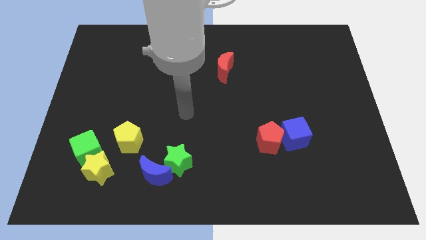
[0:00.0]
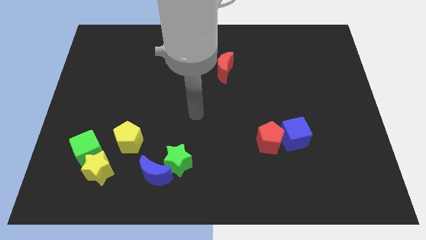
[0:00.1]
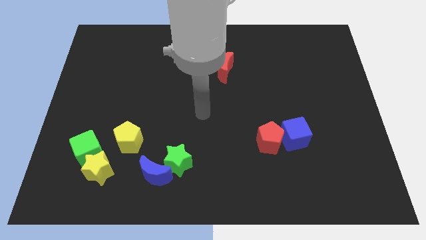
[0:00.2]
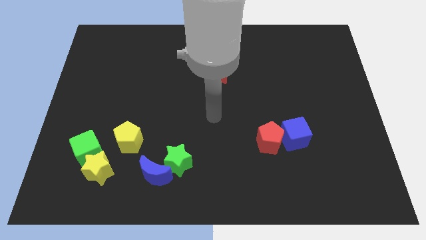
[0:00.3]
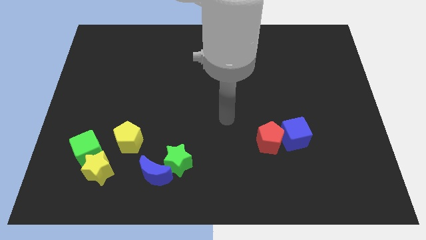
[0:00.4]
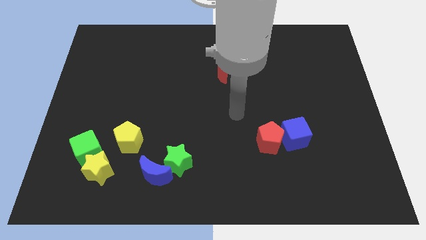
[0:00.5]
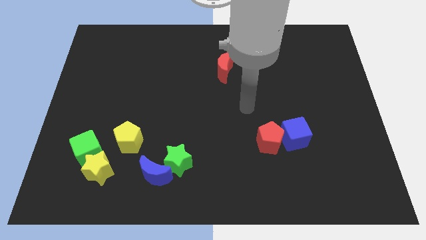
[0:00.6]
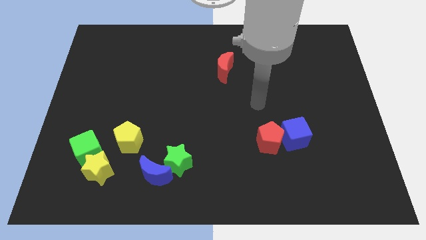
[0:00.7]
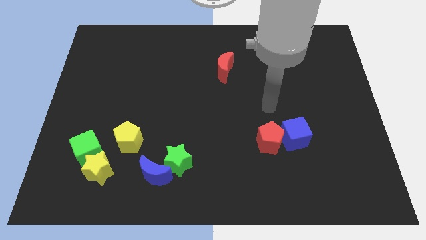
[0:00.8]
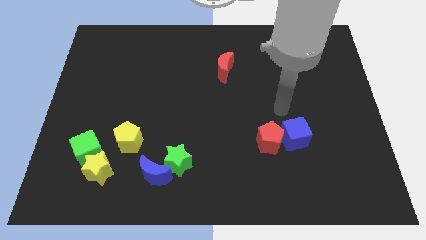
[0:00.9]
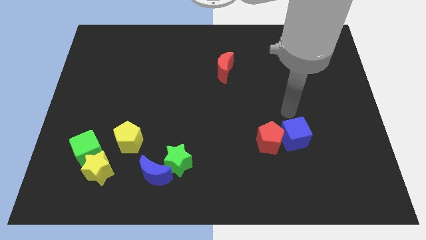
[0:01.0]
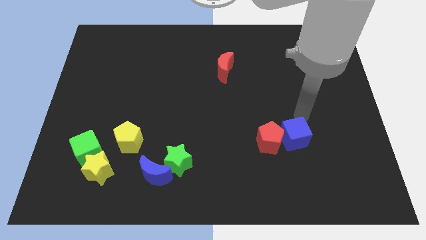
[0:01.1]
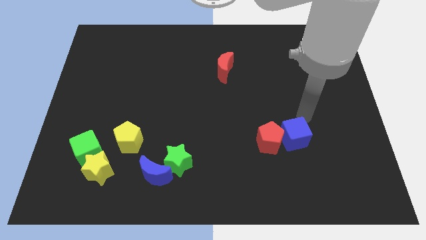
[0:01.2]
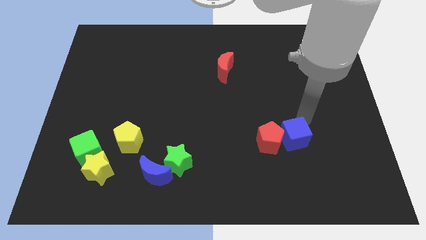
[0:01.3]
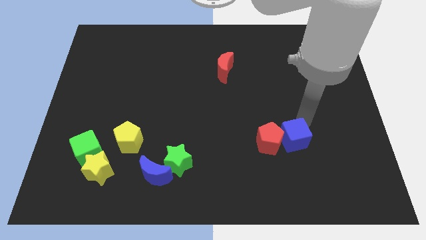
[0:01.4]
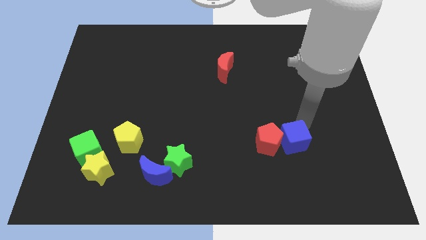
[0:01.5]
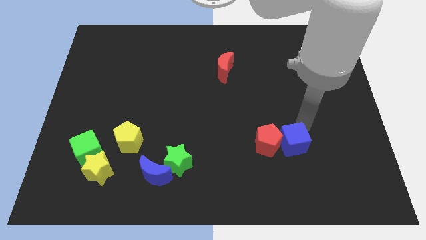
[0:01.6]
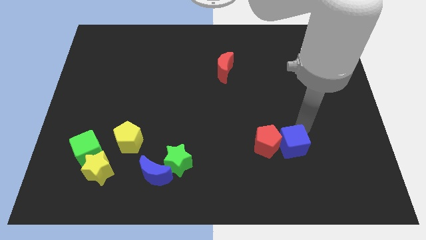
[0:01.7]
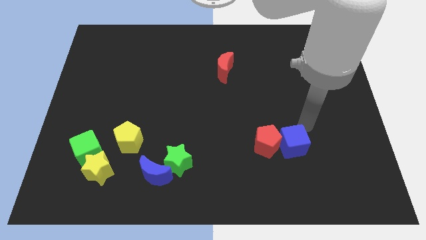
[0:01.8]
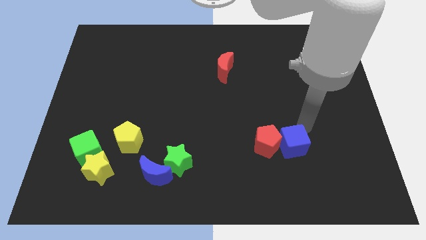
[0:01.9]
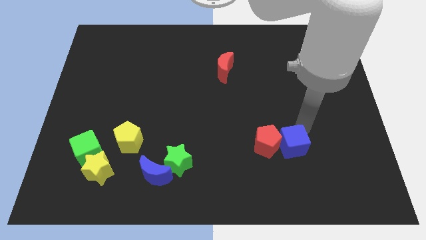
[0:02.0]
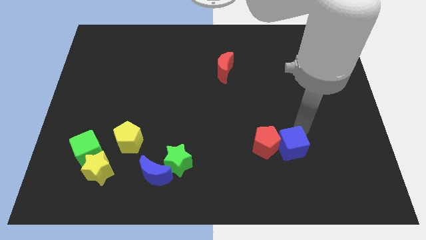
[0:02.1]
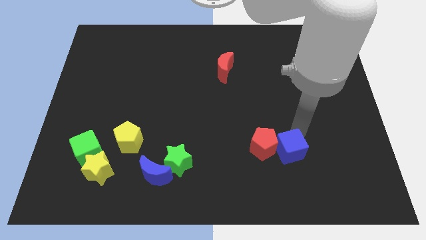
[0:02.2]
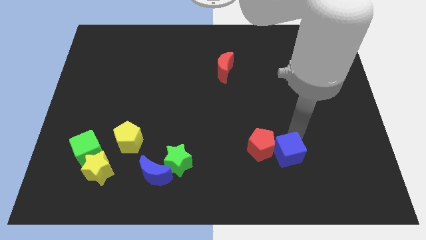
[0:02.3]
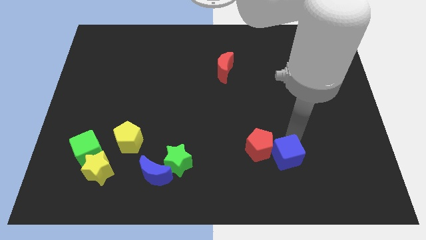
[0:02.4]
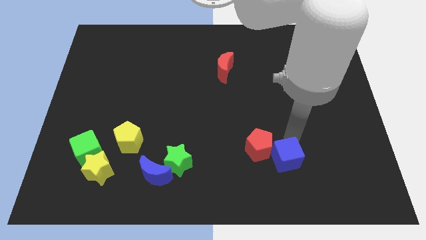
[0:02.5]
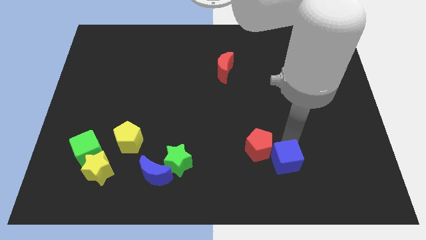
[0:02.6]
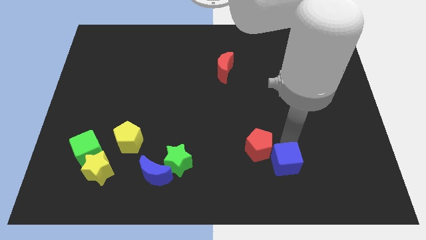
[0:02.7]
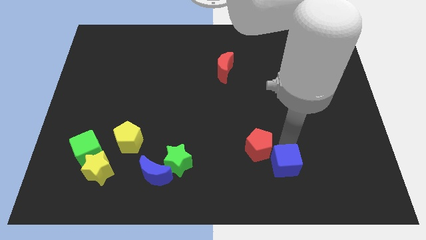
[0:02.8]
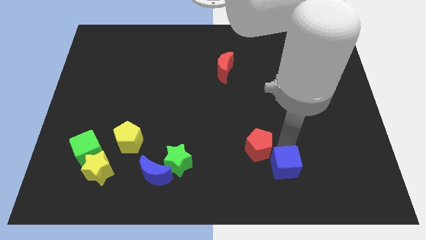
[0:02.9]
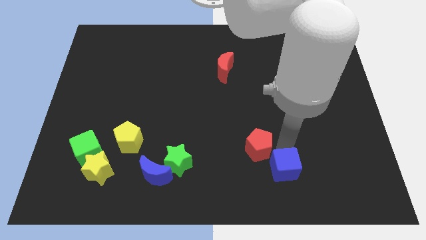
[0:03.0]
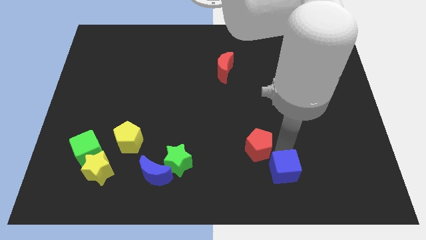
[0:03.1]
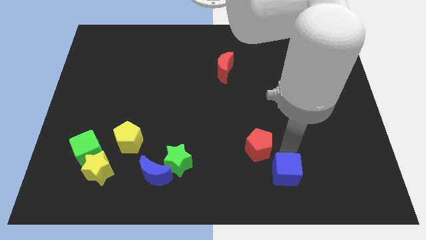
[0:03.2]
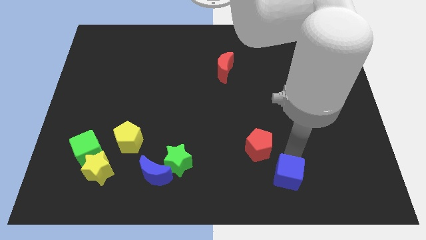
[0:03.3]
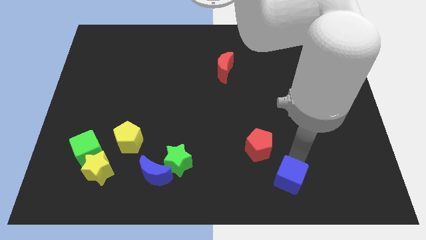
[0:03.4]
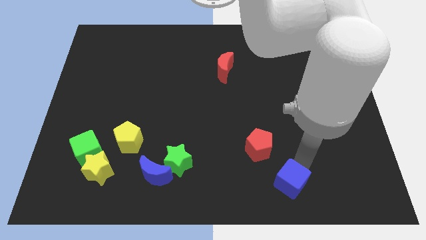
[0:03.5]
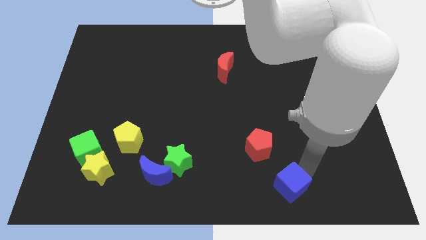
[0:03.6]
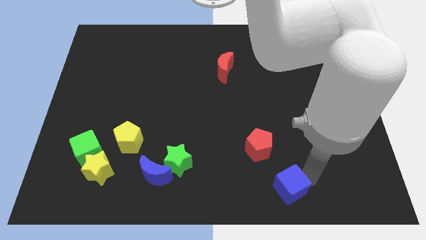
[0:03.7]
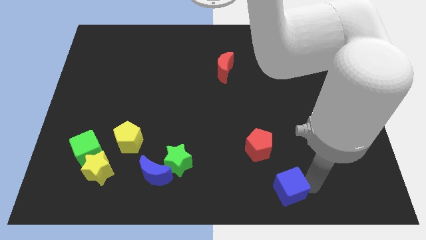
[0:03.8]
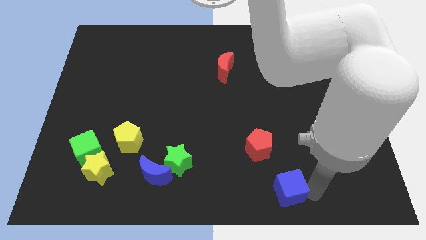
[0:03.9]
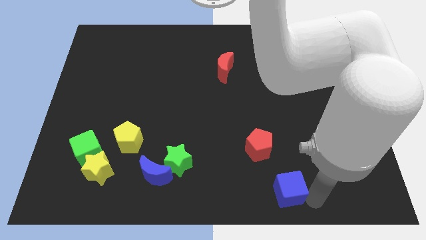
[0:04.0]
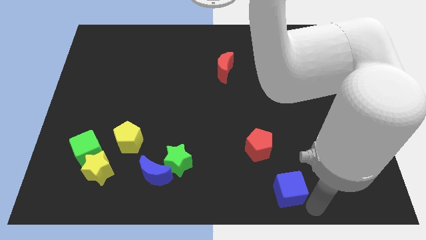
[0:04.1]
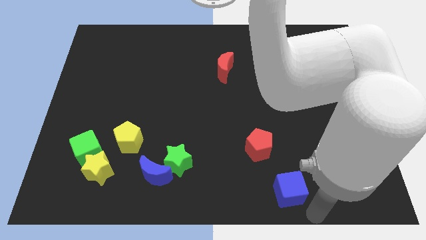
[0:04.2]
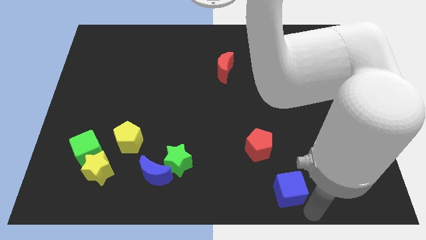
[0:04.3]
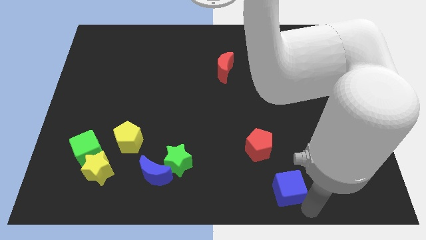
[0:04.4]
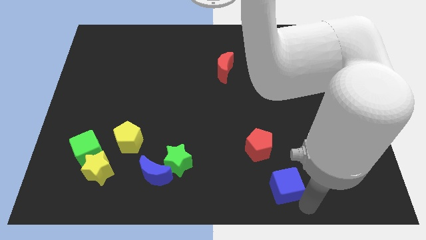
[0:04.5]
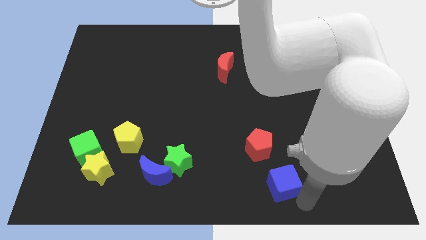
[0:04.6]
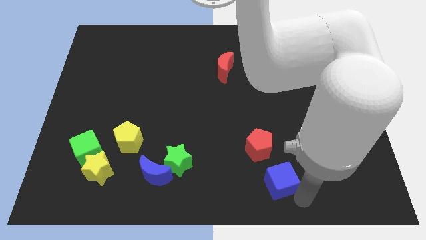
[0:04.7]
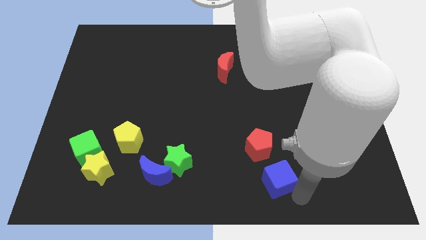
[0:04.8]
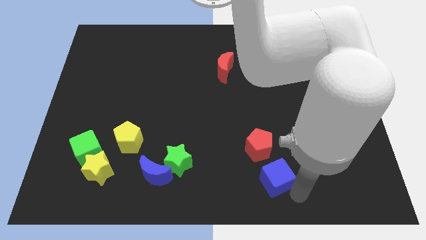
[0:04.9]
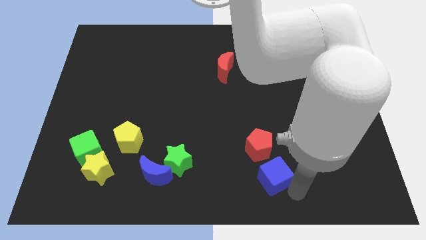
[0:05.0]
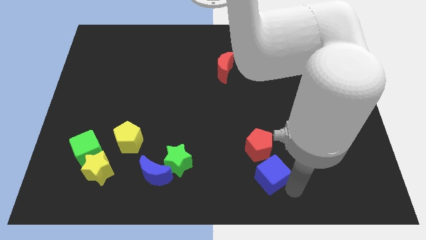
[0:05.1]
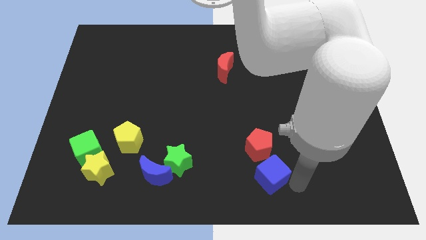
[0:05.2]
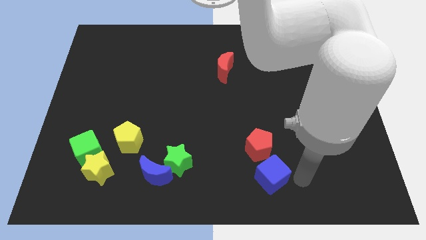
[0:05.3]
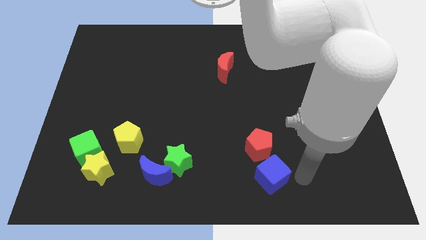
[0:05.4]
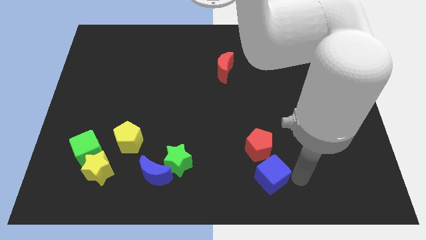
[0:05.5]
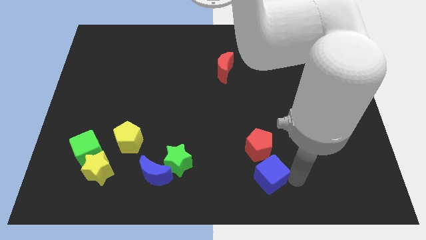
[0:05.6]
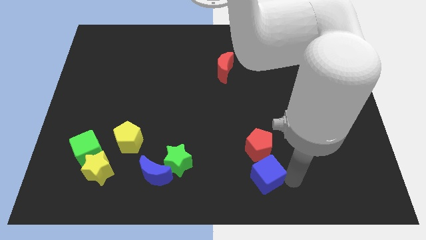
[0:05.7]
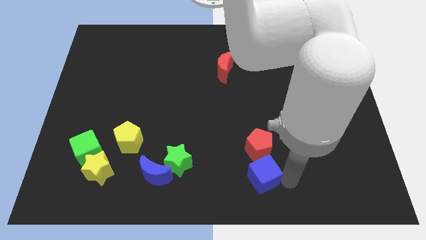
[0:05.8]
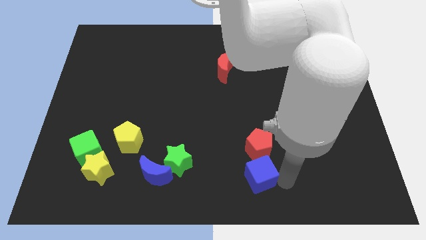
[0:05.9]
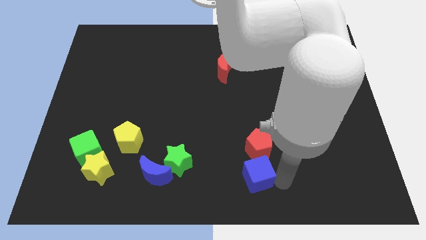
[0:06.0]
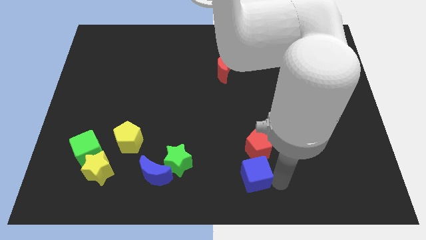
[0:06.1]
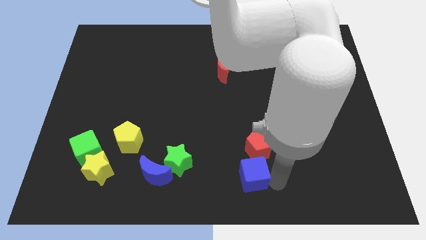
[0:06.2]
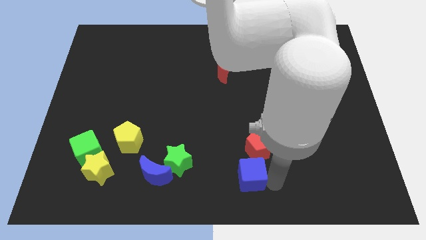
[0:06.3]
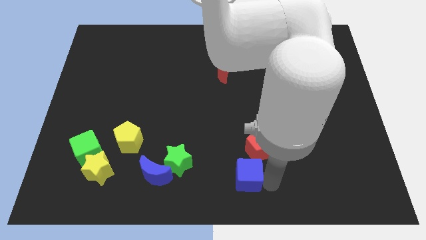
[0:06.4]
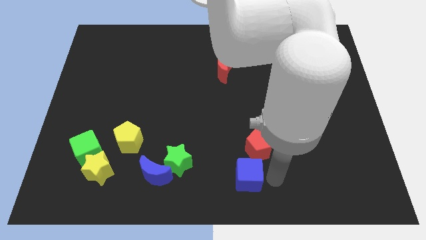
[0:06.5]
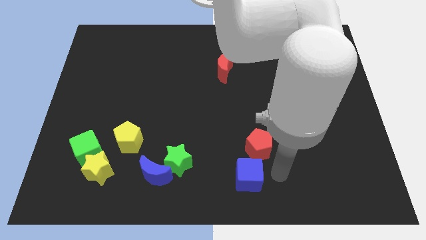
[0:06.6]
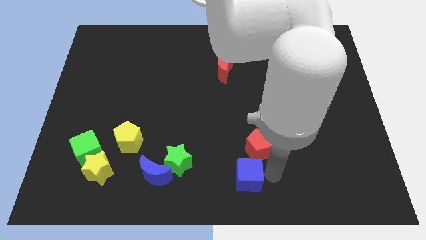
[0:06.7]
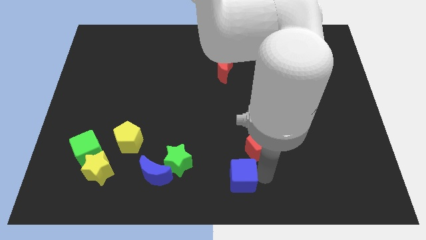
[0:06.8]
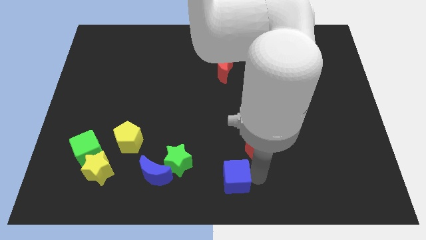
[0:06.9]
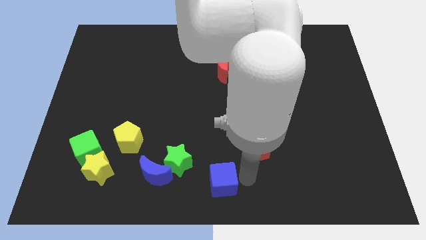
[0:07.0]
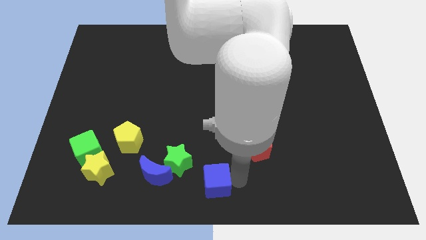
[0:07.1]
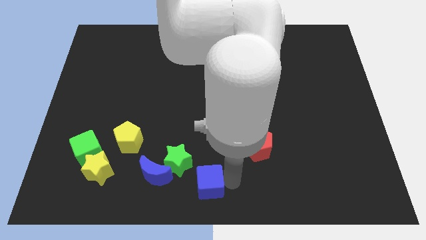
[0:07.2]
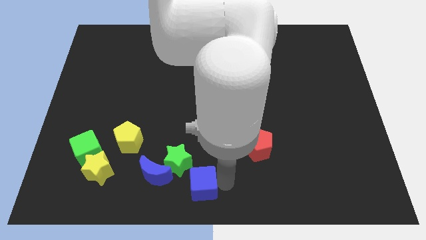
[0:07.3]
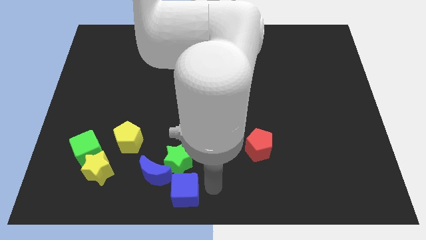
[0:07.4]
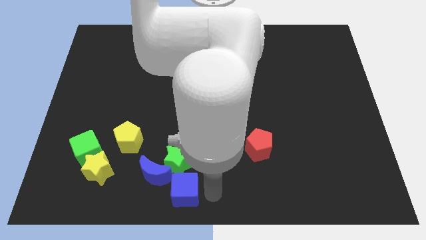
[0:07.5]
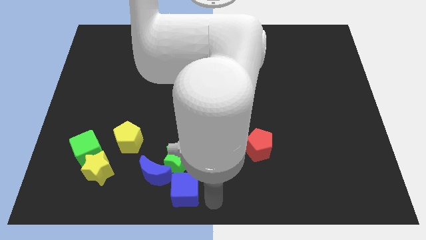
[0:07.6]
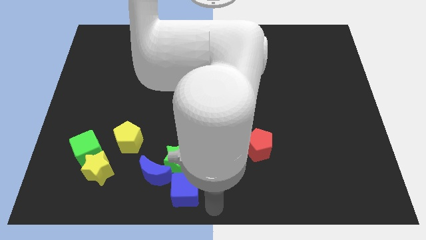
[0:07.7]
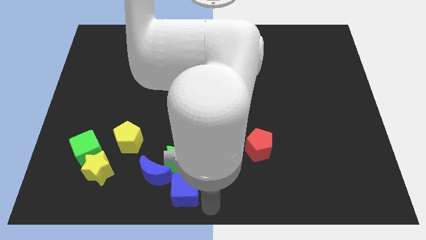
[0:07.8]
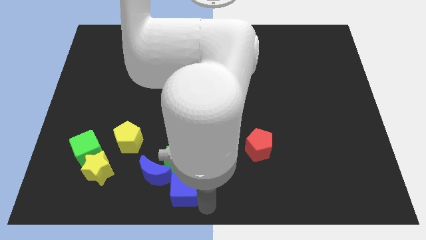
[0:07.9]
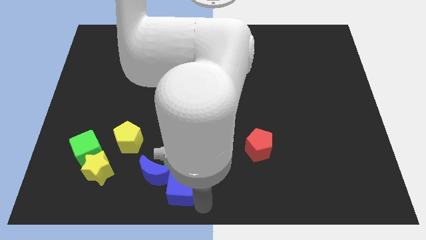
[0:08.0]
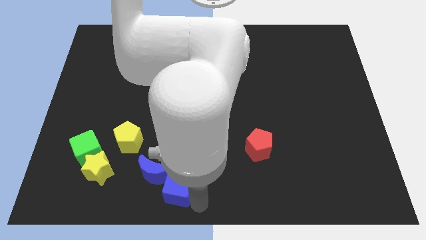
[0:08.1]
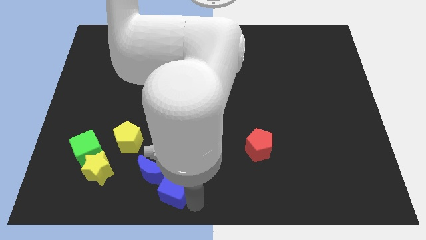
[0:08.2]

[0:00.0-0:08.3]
push the blue cube towards the blue moon

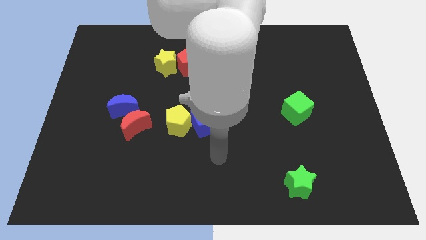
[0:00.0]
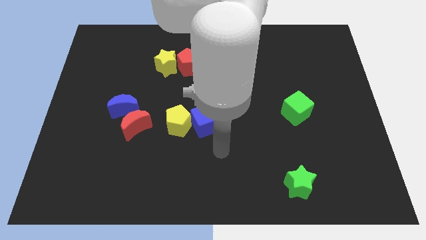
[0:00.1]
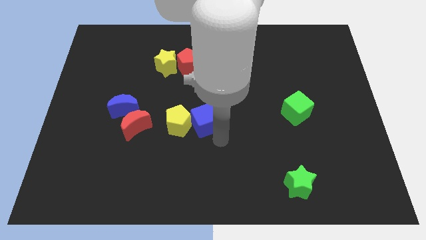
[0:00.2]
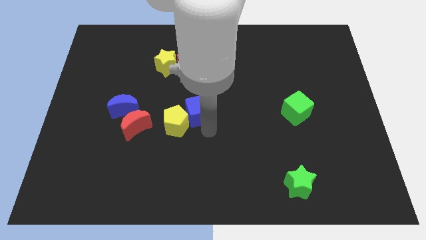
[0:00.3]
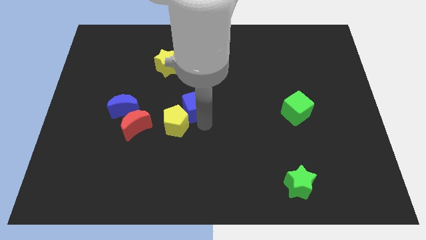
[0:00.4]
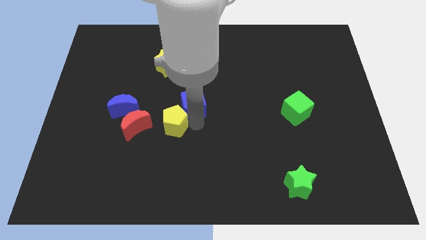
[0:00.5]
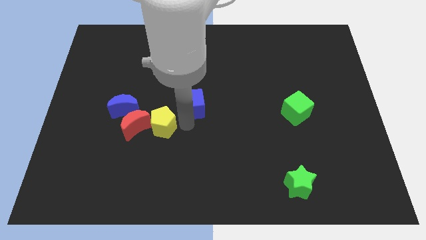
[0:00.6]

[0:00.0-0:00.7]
slide the yellow pentagon towards the red moon
